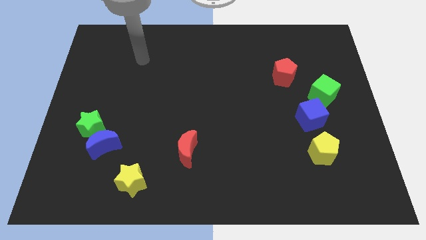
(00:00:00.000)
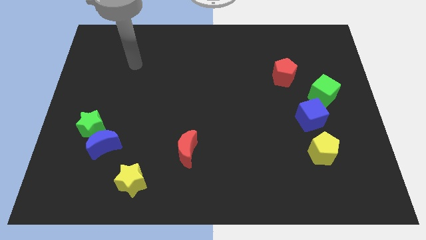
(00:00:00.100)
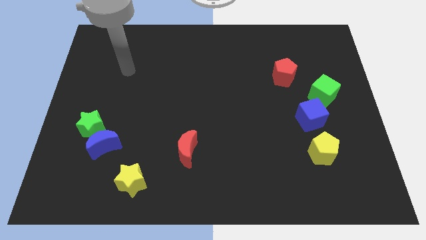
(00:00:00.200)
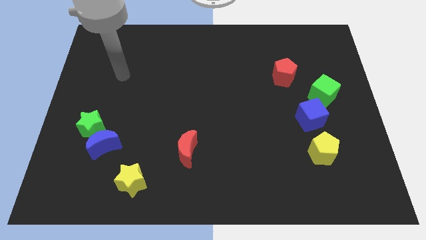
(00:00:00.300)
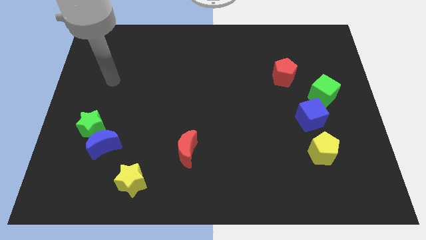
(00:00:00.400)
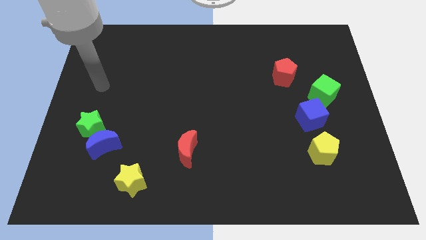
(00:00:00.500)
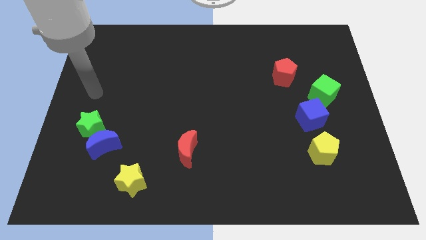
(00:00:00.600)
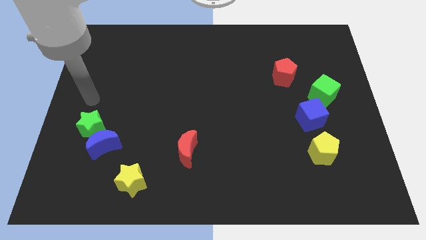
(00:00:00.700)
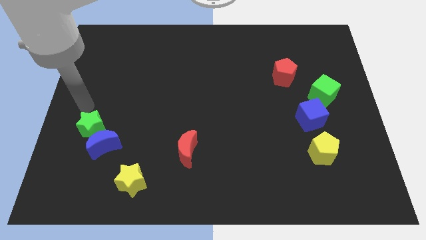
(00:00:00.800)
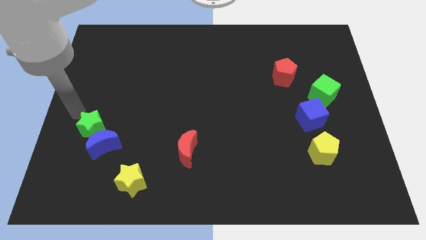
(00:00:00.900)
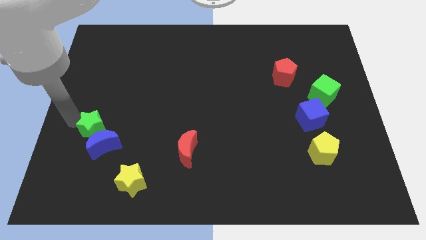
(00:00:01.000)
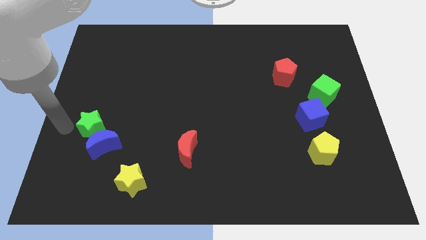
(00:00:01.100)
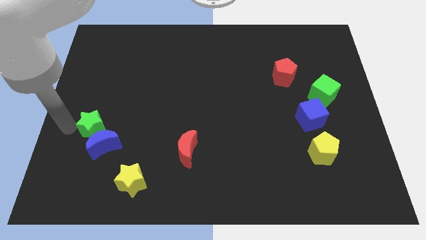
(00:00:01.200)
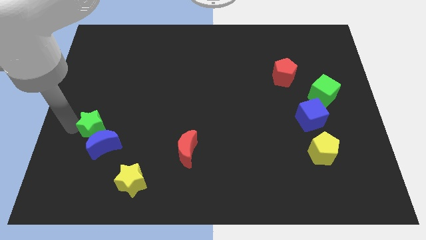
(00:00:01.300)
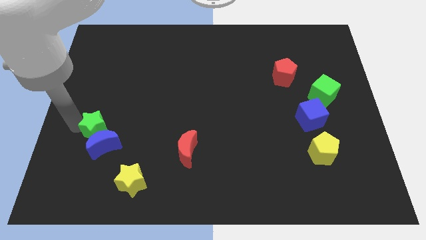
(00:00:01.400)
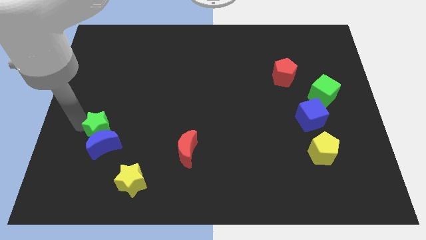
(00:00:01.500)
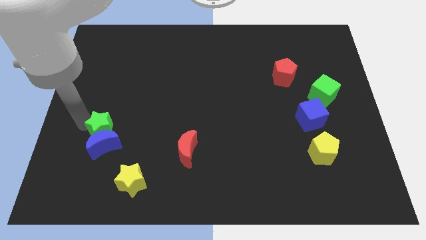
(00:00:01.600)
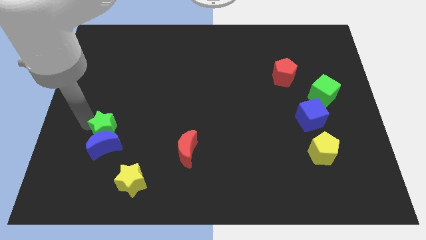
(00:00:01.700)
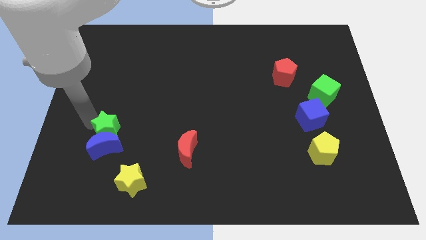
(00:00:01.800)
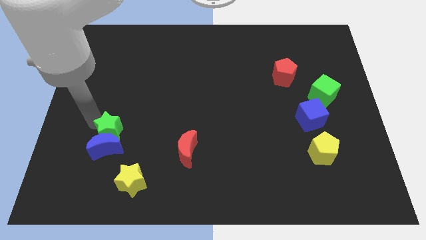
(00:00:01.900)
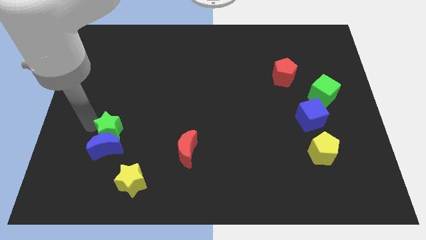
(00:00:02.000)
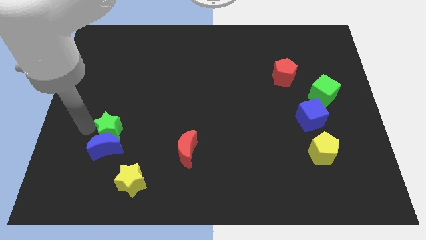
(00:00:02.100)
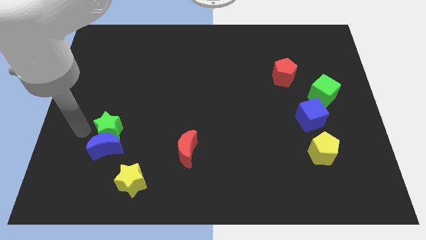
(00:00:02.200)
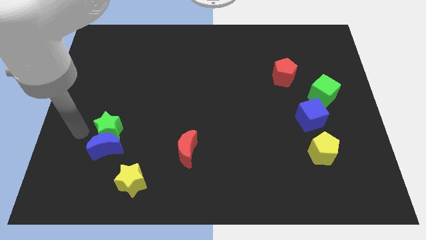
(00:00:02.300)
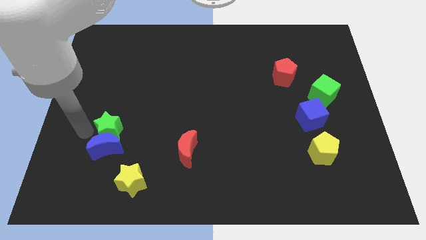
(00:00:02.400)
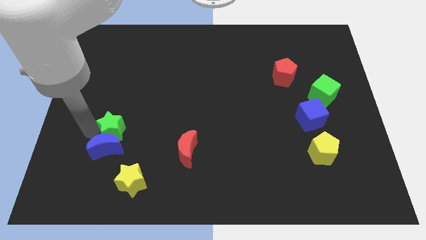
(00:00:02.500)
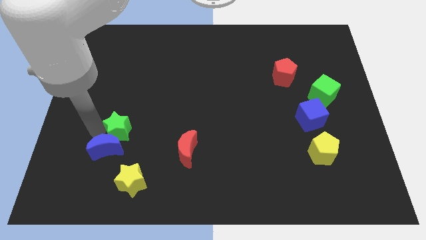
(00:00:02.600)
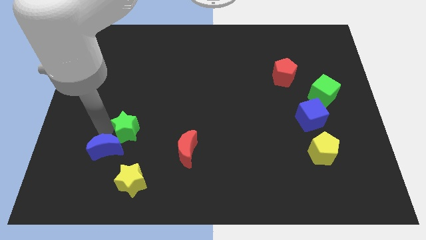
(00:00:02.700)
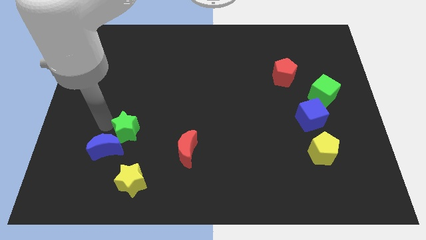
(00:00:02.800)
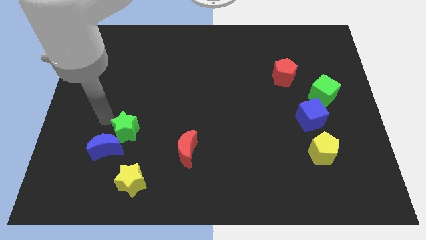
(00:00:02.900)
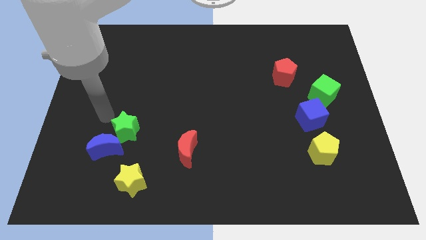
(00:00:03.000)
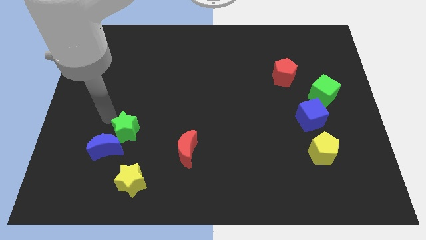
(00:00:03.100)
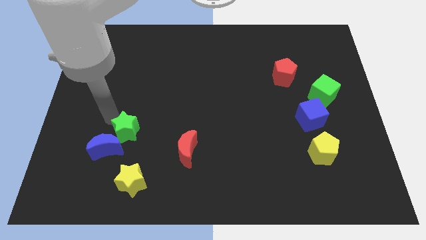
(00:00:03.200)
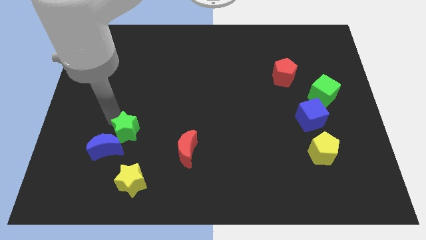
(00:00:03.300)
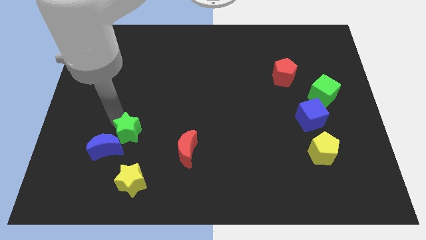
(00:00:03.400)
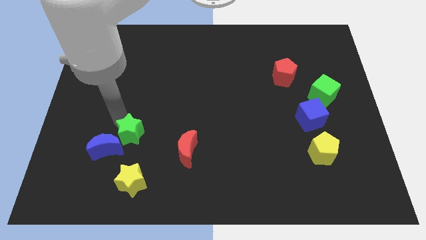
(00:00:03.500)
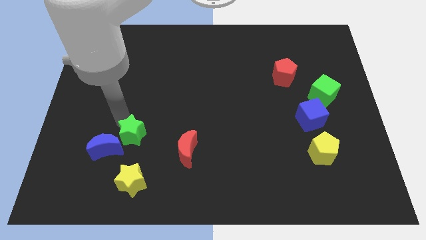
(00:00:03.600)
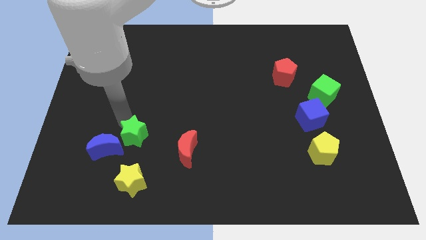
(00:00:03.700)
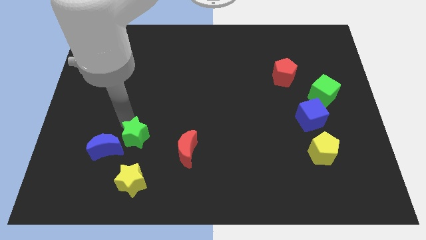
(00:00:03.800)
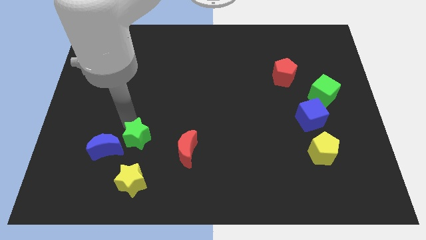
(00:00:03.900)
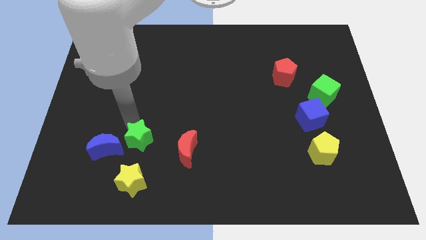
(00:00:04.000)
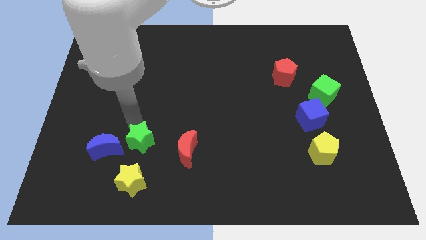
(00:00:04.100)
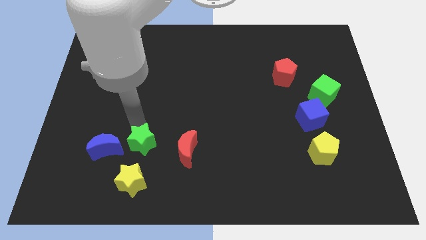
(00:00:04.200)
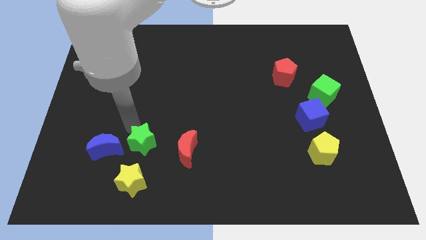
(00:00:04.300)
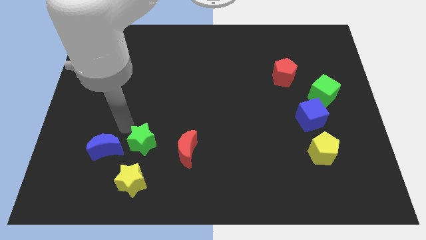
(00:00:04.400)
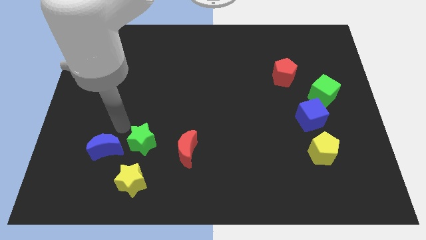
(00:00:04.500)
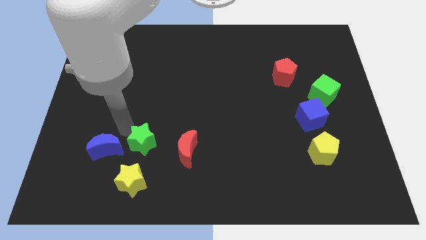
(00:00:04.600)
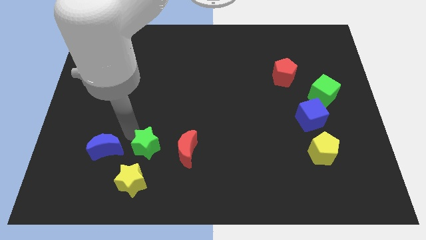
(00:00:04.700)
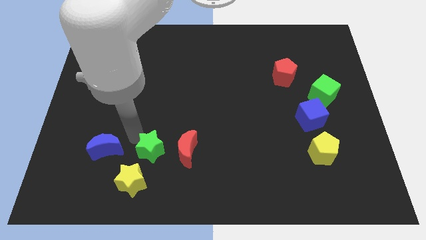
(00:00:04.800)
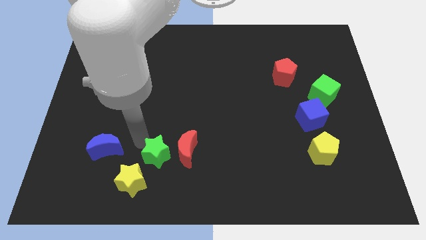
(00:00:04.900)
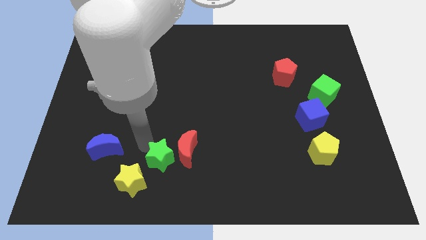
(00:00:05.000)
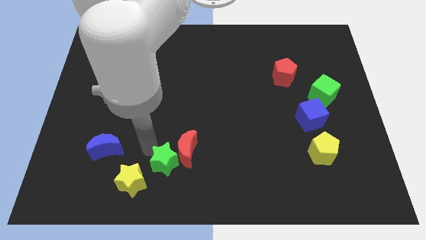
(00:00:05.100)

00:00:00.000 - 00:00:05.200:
put the green star right of the yellow star

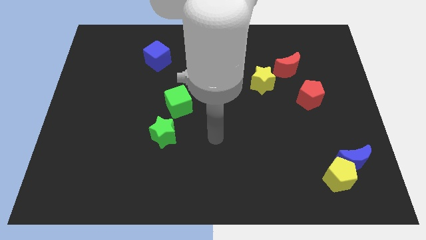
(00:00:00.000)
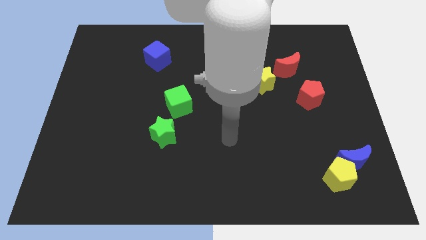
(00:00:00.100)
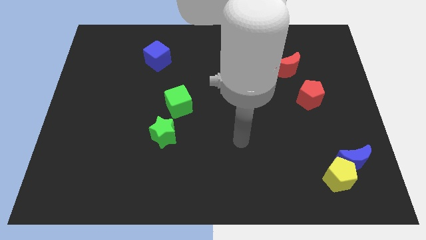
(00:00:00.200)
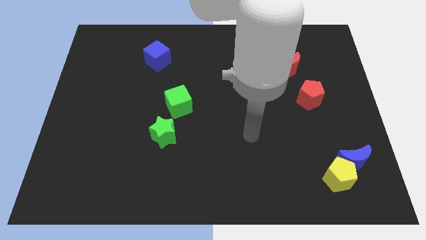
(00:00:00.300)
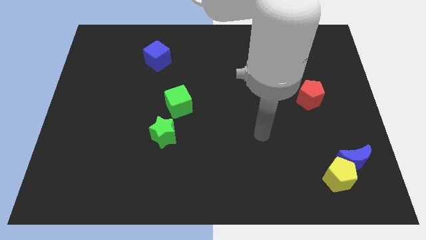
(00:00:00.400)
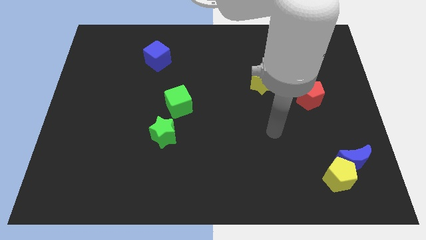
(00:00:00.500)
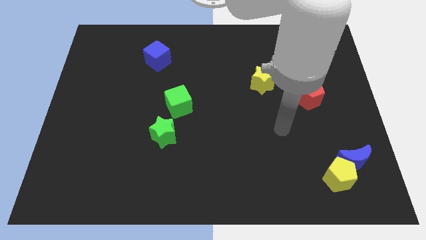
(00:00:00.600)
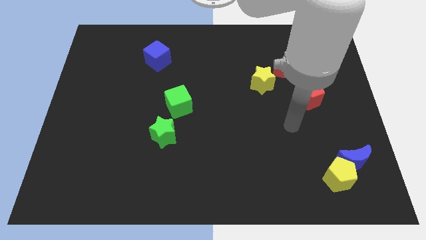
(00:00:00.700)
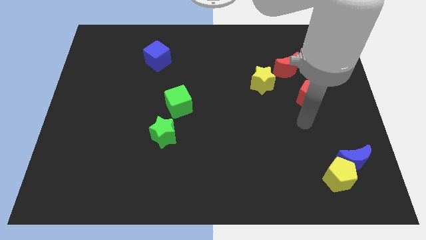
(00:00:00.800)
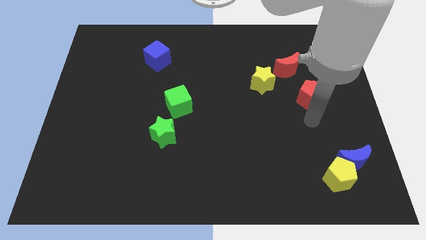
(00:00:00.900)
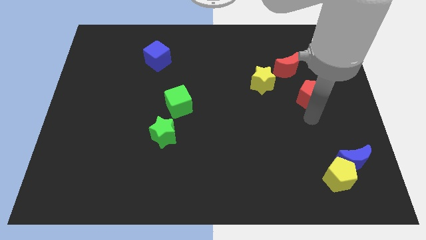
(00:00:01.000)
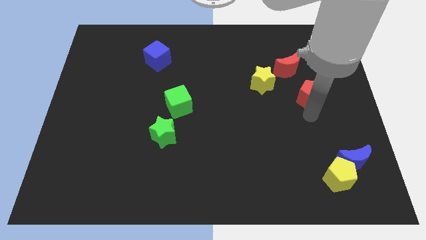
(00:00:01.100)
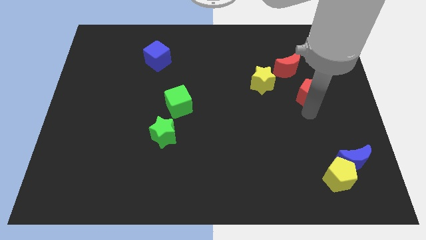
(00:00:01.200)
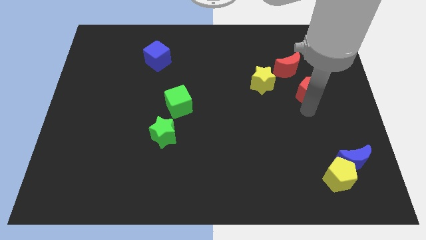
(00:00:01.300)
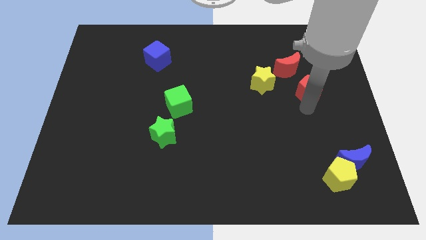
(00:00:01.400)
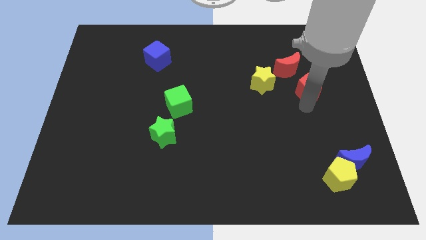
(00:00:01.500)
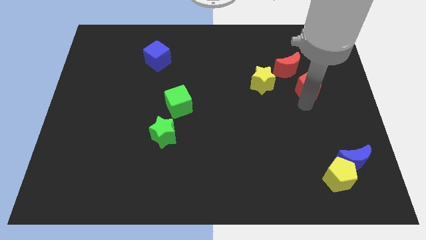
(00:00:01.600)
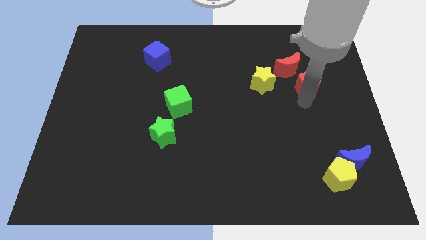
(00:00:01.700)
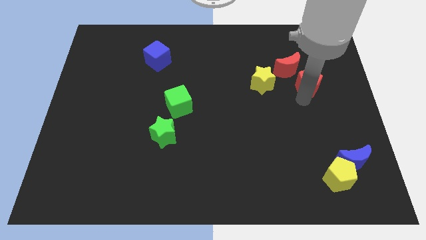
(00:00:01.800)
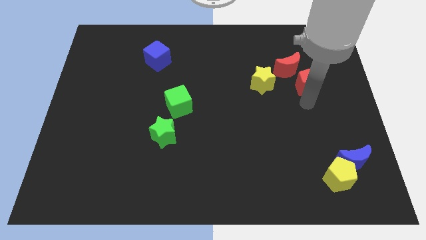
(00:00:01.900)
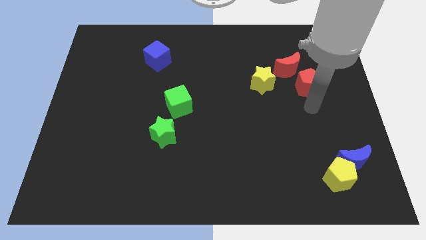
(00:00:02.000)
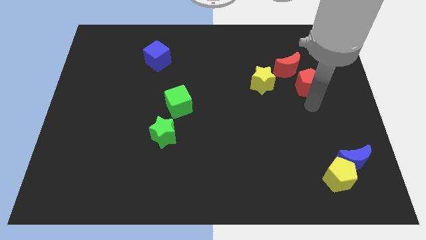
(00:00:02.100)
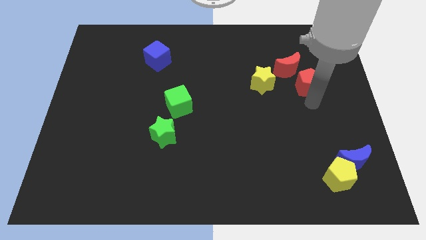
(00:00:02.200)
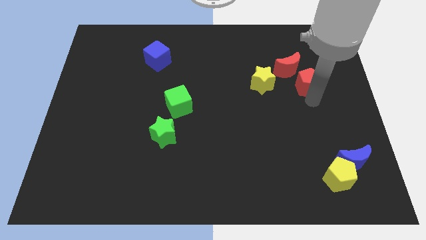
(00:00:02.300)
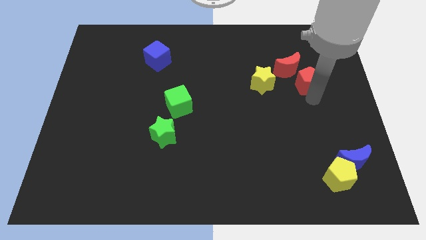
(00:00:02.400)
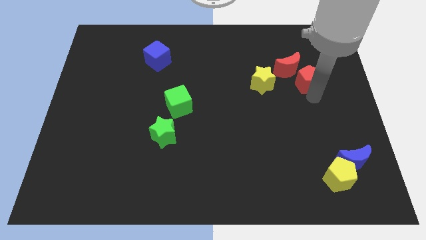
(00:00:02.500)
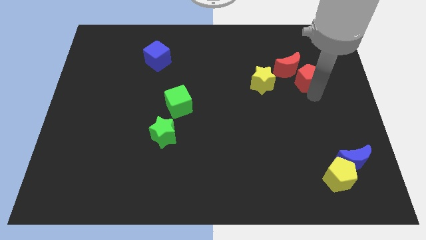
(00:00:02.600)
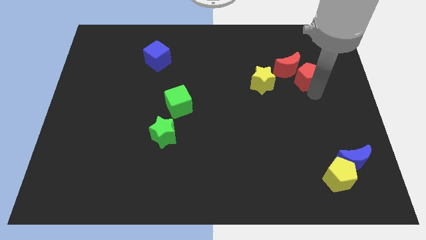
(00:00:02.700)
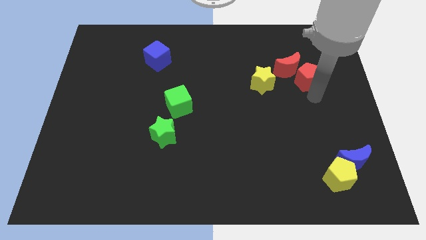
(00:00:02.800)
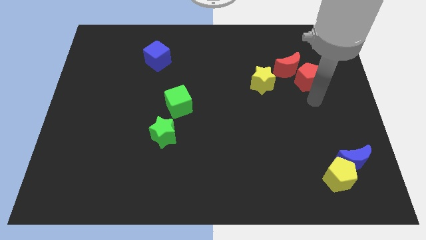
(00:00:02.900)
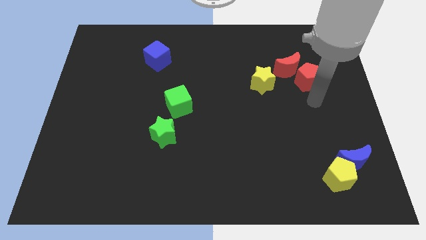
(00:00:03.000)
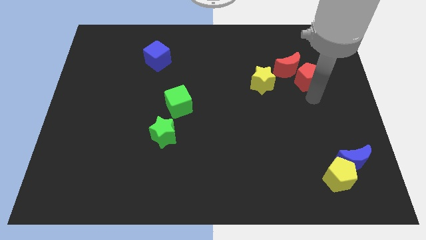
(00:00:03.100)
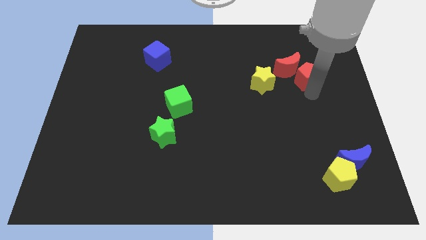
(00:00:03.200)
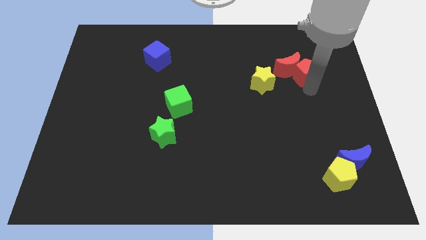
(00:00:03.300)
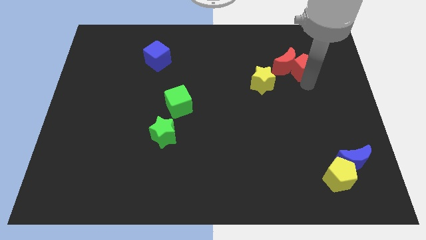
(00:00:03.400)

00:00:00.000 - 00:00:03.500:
move the red pentagon diagonally up and to the right of the red moon
